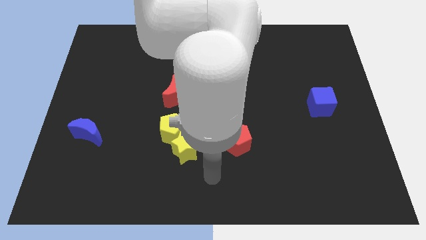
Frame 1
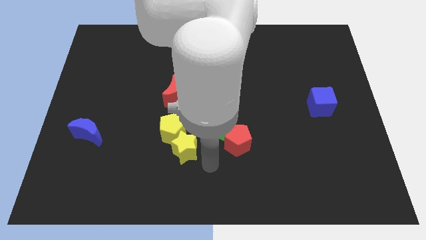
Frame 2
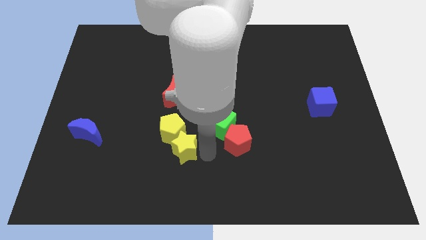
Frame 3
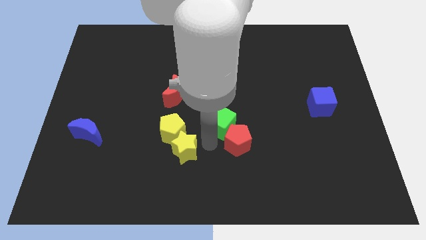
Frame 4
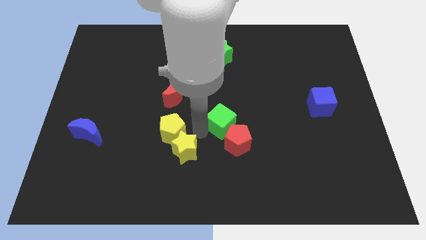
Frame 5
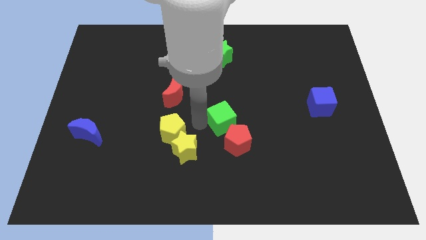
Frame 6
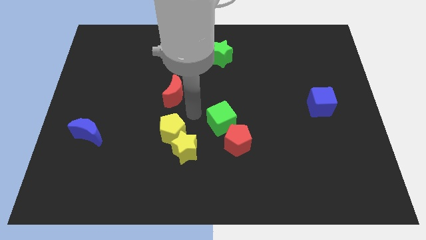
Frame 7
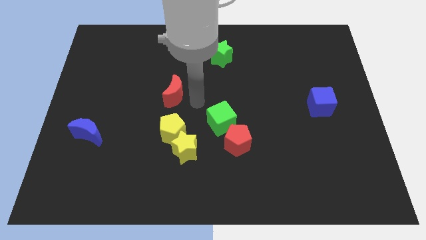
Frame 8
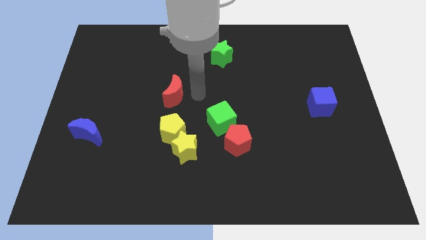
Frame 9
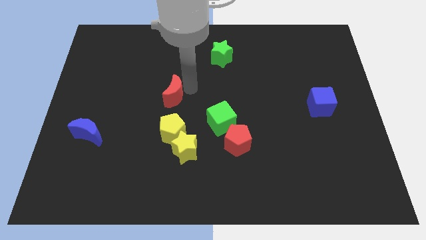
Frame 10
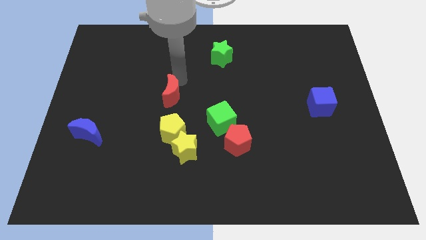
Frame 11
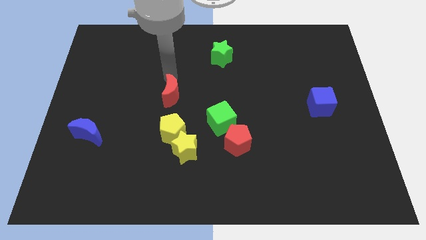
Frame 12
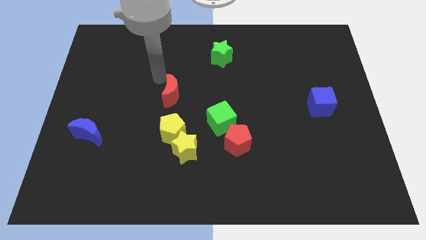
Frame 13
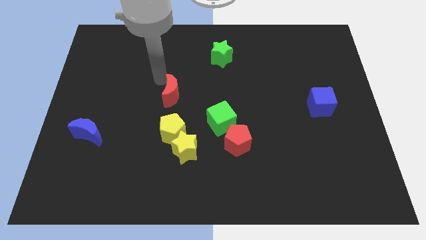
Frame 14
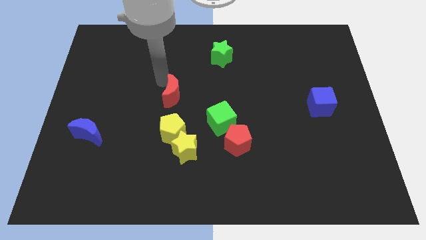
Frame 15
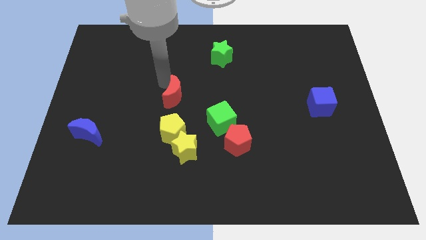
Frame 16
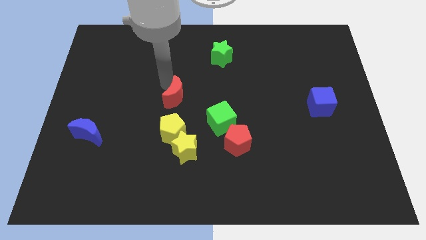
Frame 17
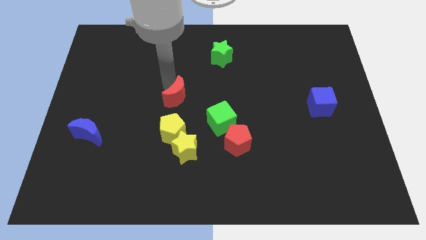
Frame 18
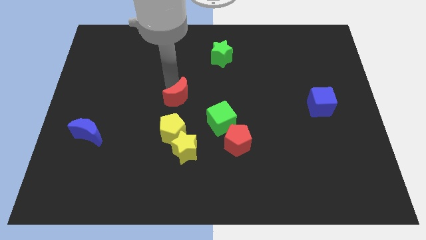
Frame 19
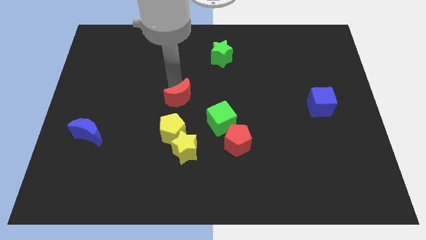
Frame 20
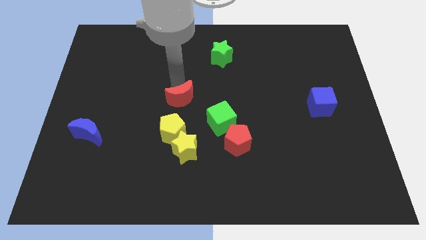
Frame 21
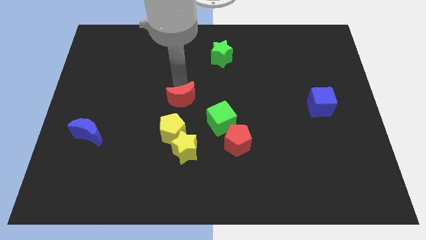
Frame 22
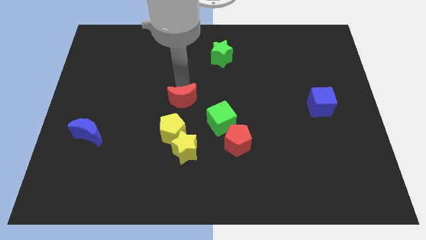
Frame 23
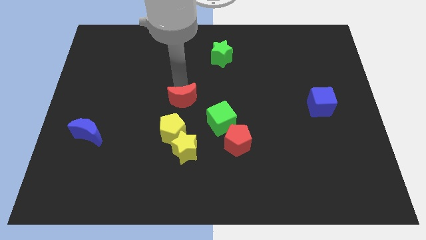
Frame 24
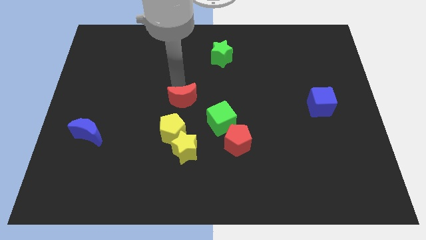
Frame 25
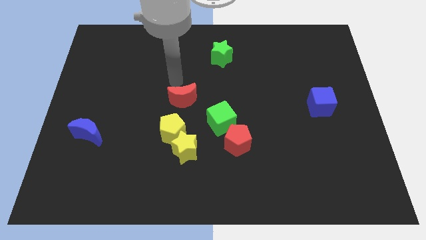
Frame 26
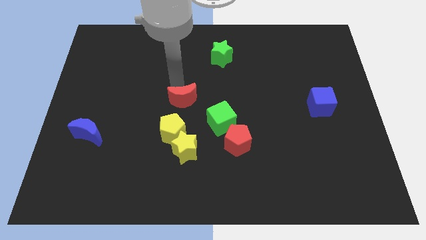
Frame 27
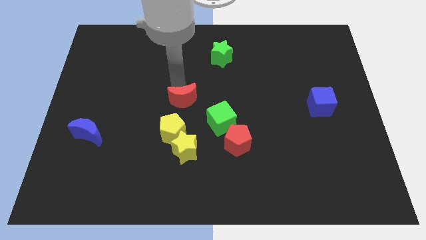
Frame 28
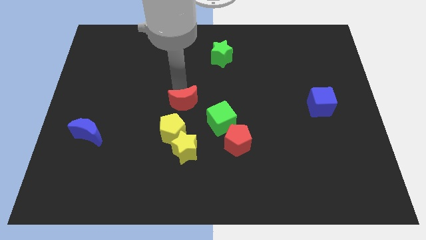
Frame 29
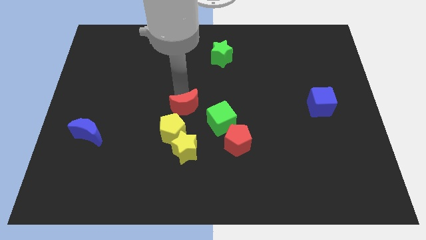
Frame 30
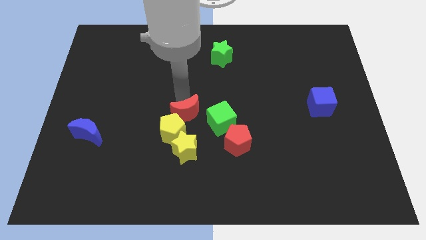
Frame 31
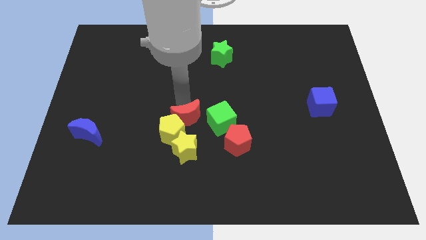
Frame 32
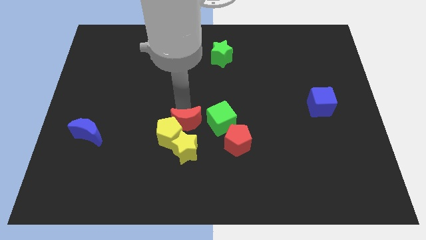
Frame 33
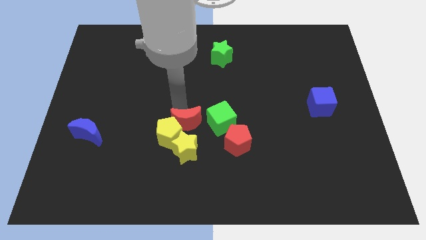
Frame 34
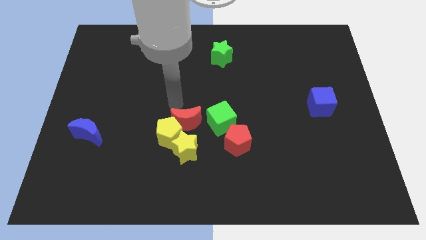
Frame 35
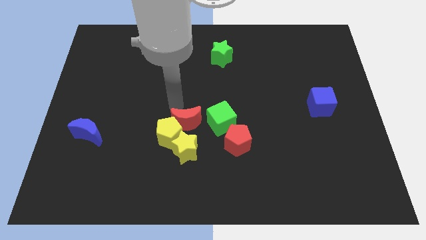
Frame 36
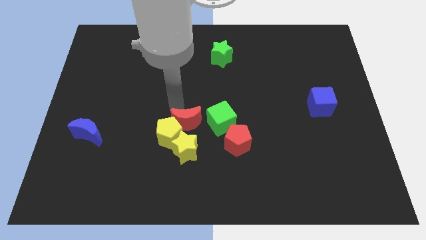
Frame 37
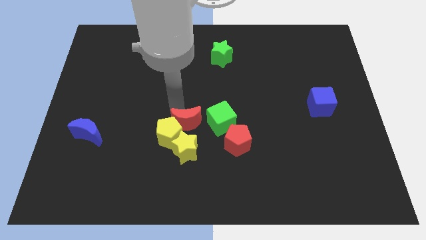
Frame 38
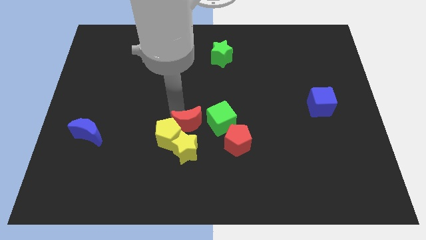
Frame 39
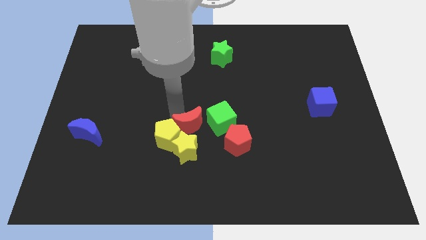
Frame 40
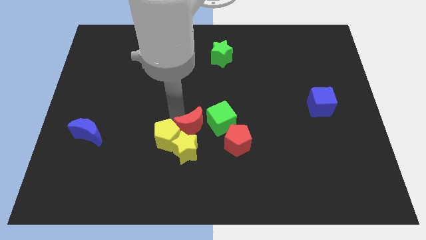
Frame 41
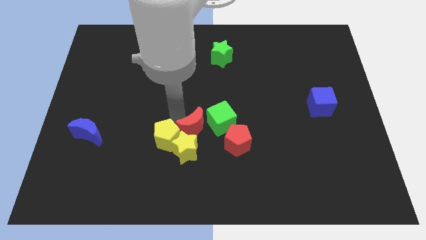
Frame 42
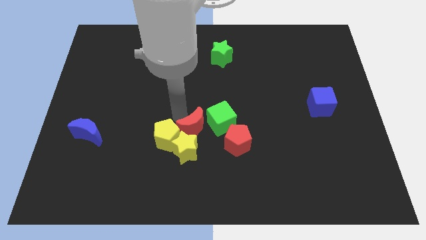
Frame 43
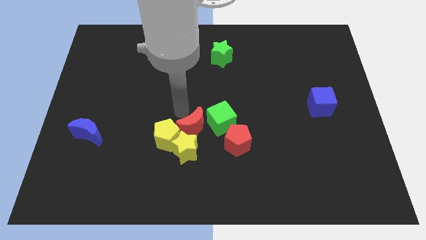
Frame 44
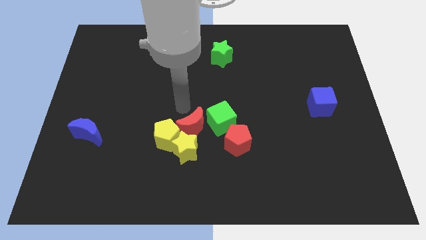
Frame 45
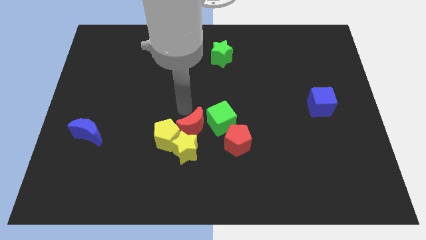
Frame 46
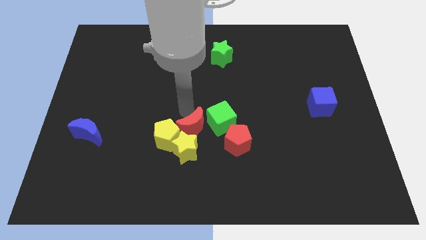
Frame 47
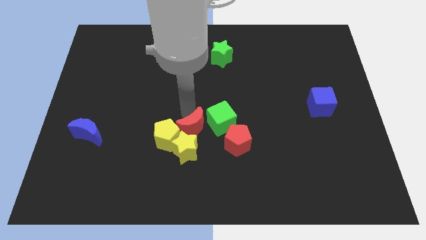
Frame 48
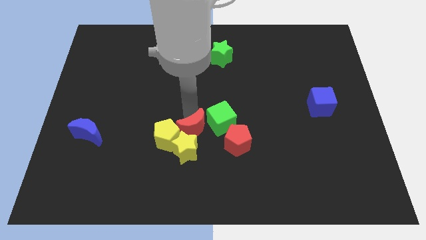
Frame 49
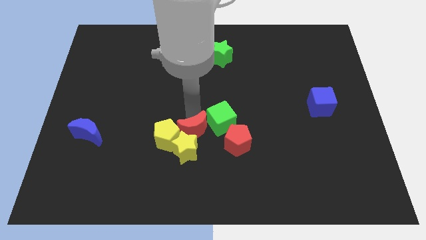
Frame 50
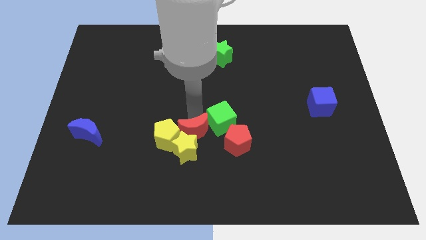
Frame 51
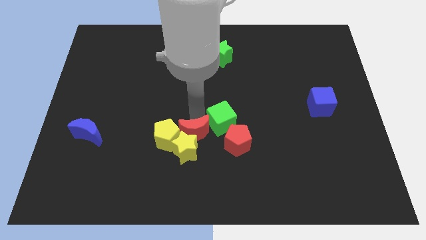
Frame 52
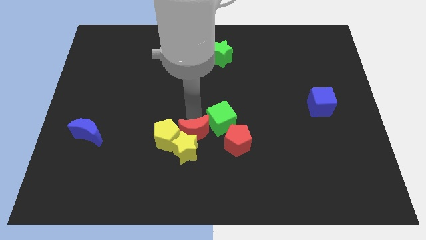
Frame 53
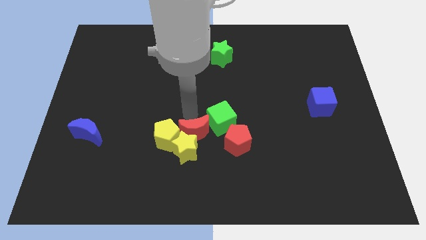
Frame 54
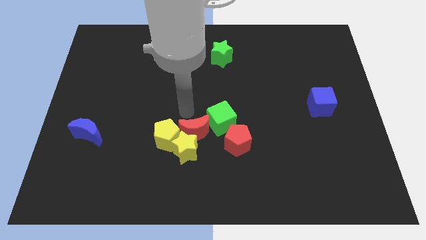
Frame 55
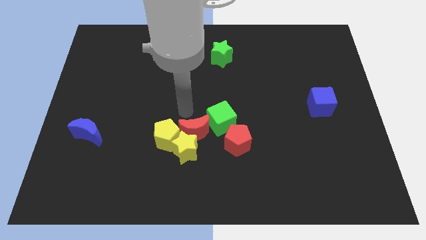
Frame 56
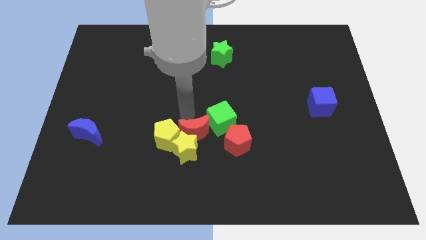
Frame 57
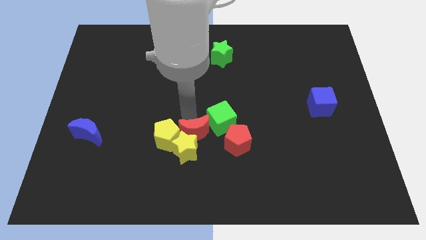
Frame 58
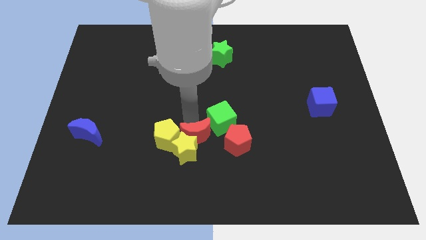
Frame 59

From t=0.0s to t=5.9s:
put the red moon diagonally down and to the right of the yellow pentagon

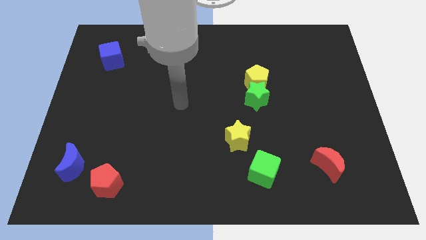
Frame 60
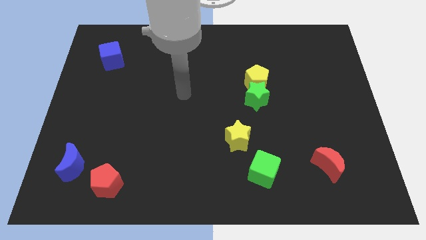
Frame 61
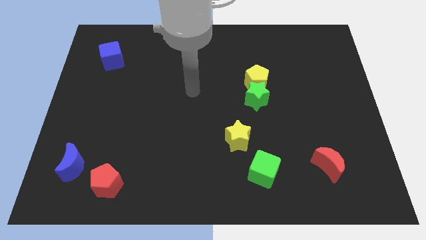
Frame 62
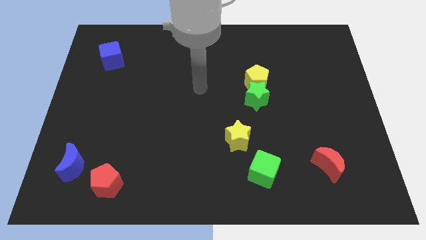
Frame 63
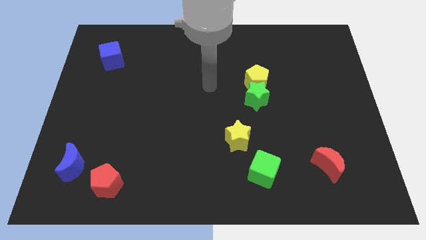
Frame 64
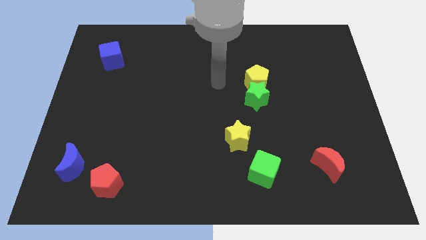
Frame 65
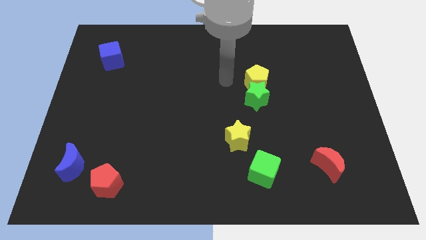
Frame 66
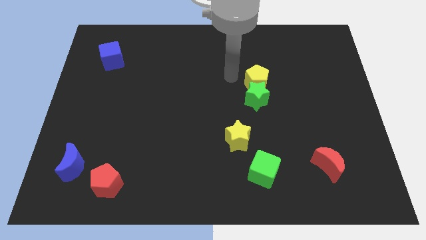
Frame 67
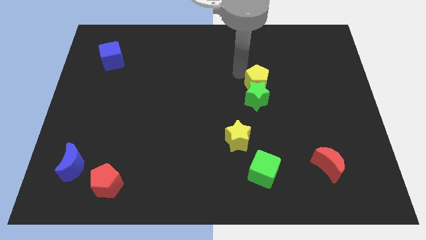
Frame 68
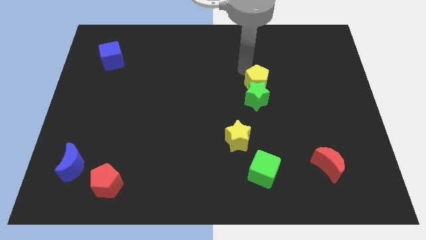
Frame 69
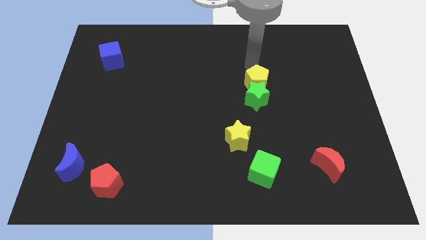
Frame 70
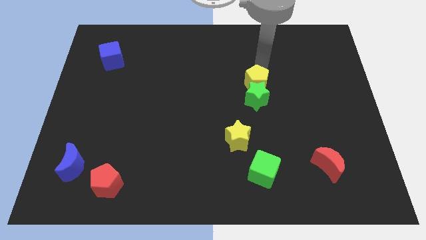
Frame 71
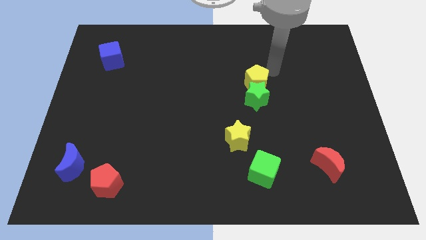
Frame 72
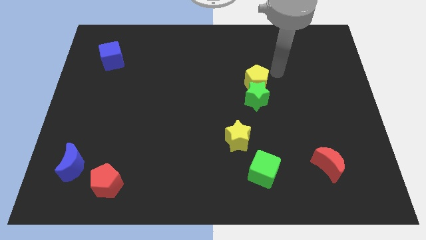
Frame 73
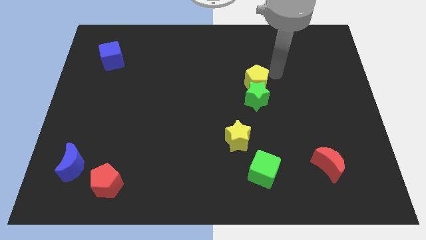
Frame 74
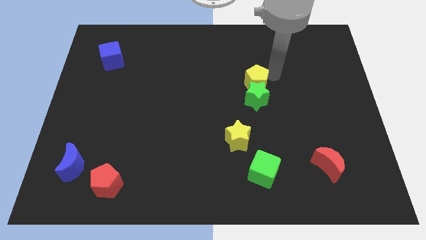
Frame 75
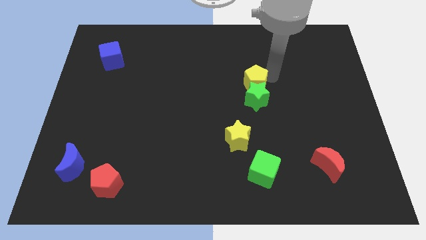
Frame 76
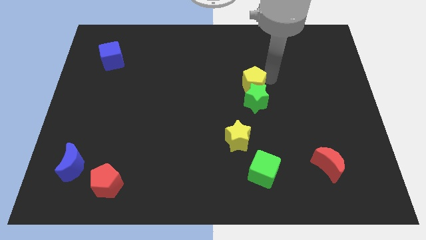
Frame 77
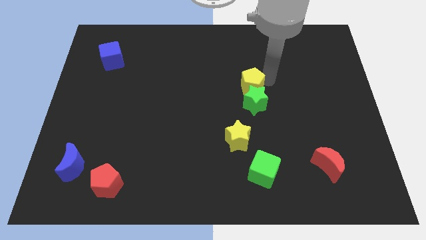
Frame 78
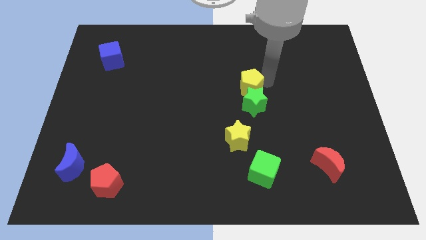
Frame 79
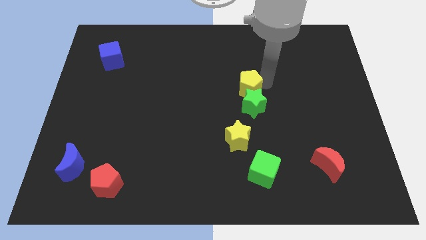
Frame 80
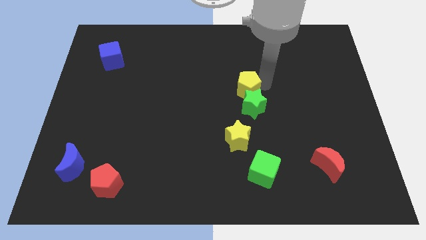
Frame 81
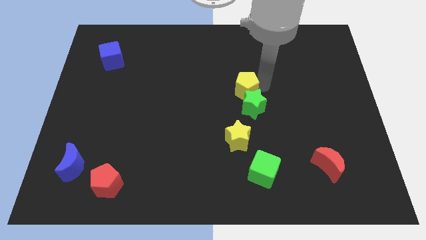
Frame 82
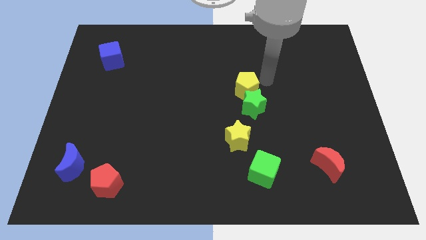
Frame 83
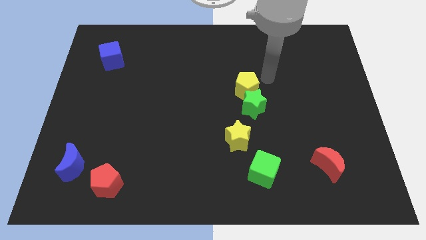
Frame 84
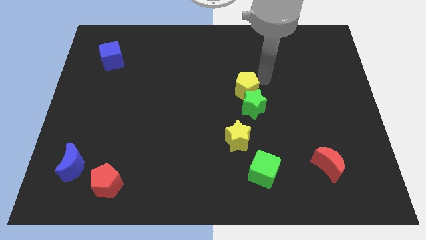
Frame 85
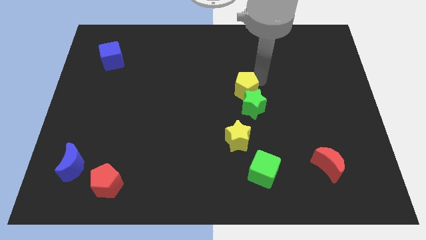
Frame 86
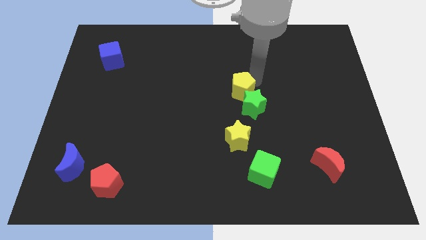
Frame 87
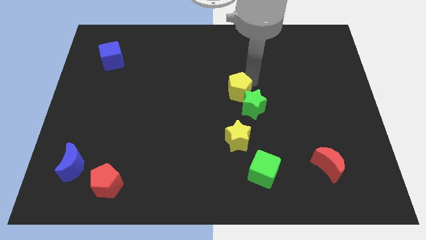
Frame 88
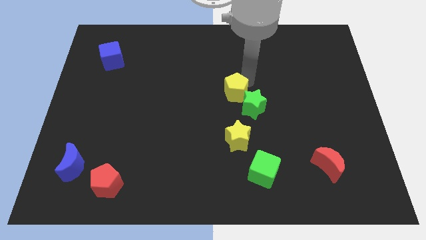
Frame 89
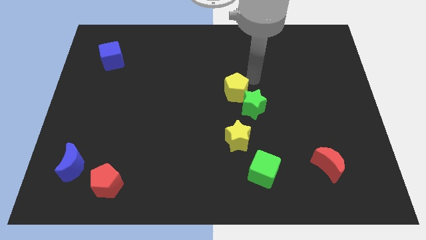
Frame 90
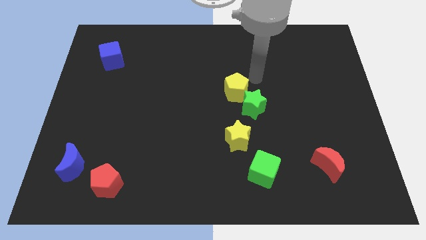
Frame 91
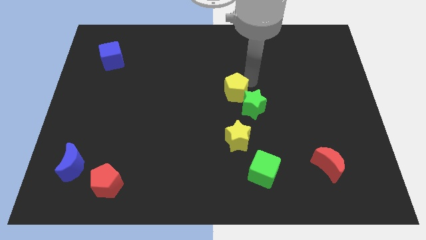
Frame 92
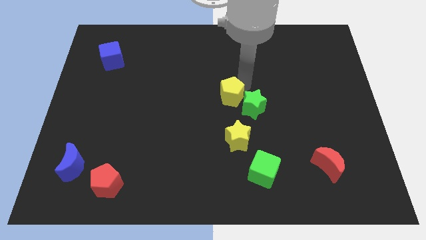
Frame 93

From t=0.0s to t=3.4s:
move the yellow pentagon left of the green star
